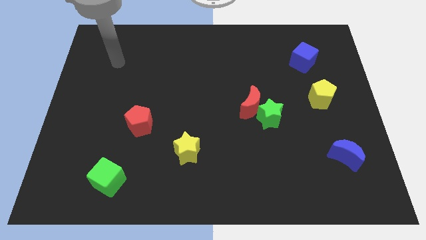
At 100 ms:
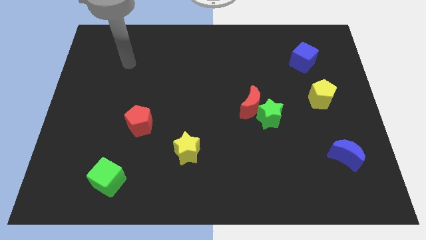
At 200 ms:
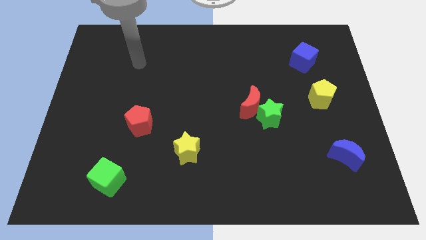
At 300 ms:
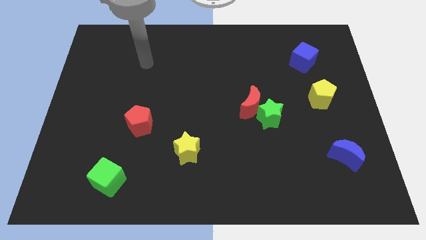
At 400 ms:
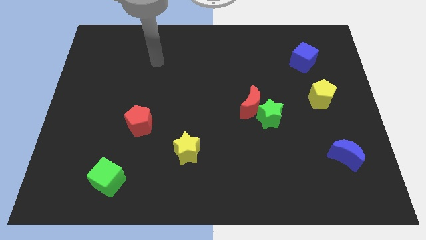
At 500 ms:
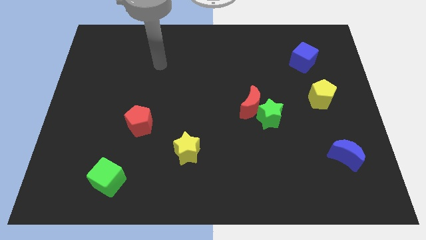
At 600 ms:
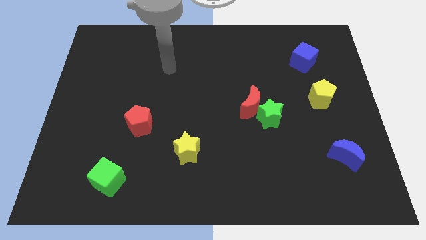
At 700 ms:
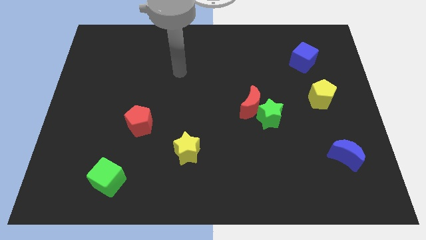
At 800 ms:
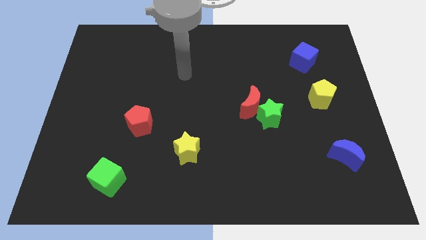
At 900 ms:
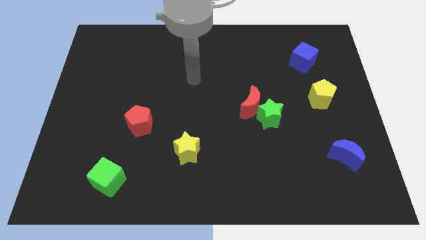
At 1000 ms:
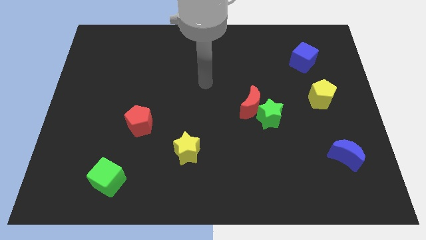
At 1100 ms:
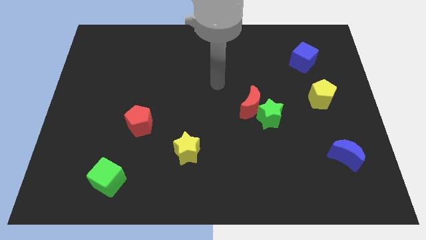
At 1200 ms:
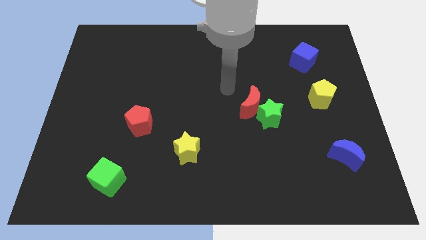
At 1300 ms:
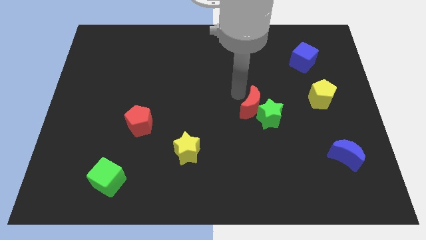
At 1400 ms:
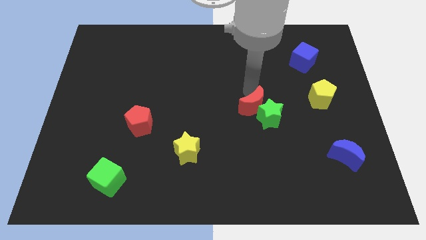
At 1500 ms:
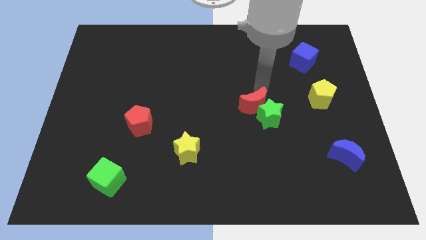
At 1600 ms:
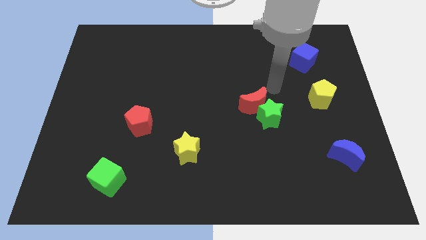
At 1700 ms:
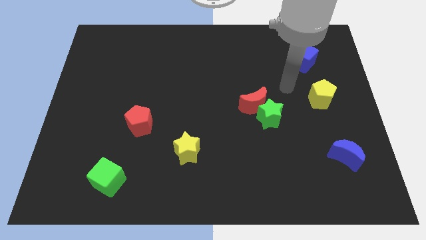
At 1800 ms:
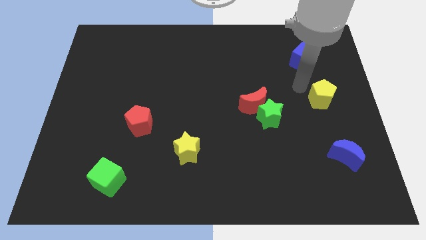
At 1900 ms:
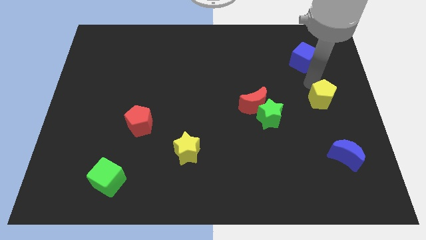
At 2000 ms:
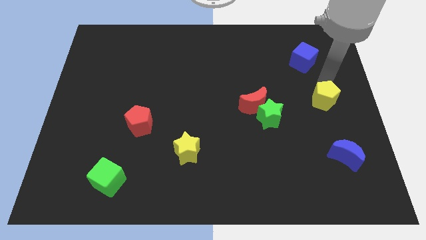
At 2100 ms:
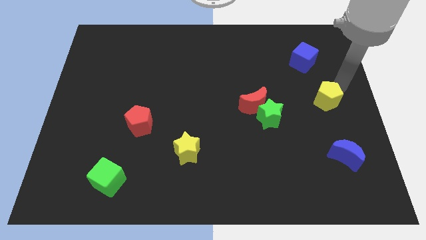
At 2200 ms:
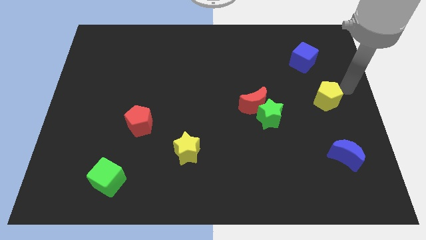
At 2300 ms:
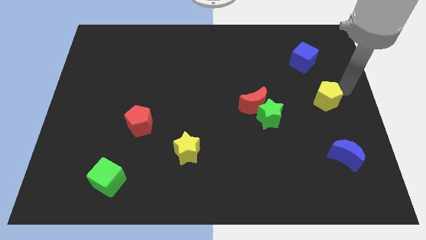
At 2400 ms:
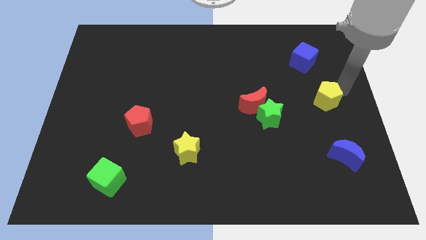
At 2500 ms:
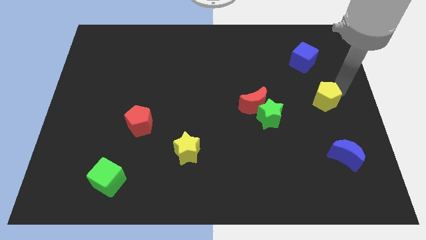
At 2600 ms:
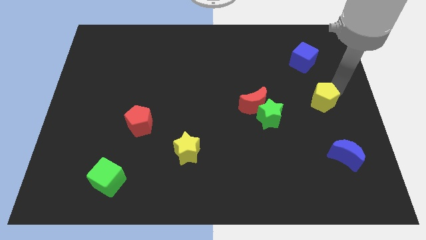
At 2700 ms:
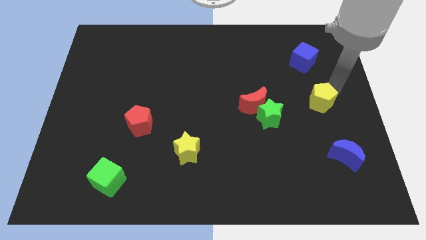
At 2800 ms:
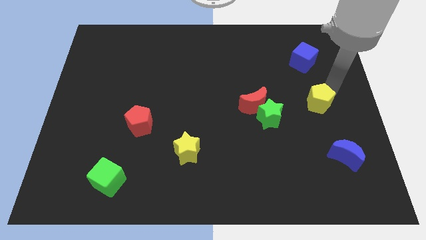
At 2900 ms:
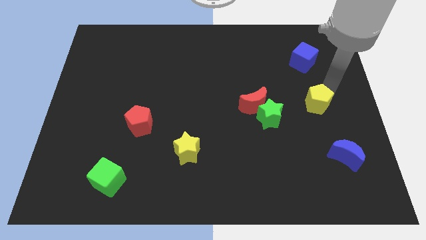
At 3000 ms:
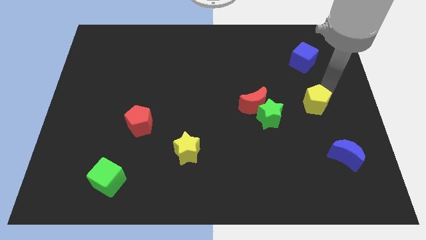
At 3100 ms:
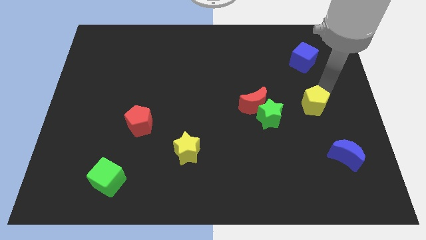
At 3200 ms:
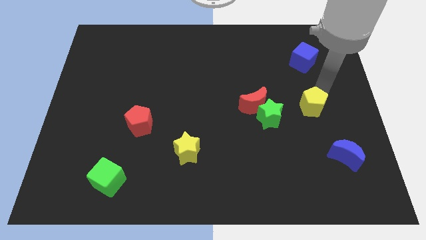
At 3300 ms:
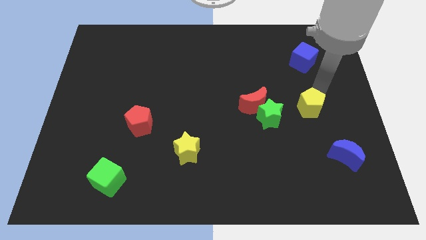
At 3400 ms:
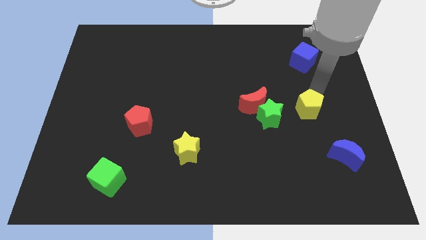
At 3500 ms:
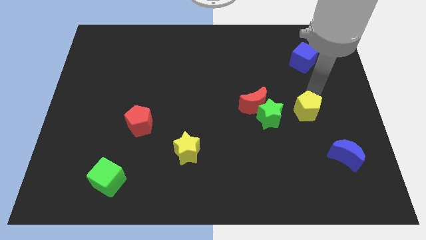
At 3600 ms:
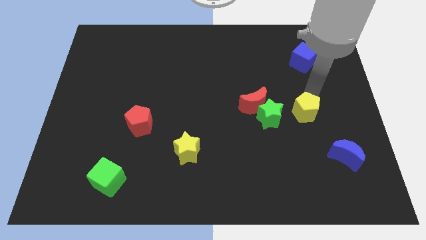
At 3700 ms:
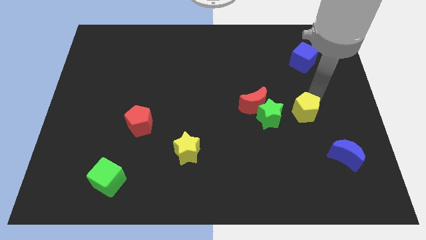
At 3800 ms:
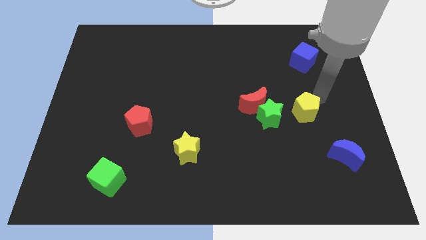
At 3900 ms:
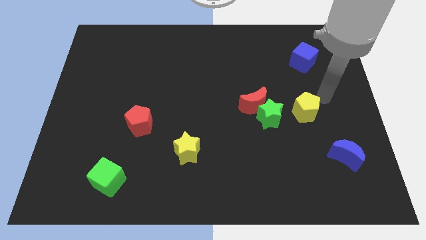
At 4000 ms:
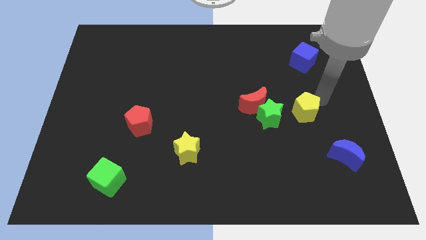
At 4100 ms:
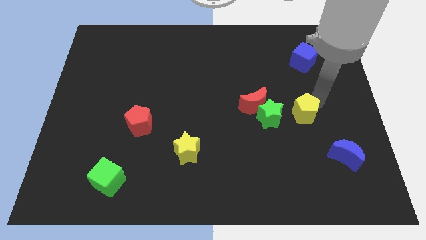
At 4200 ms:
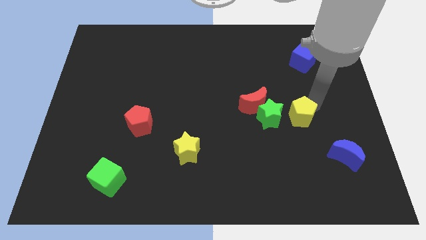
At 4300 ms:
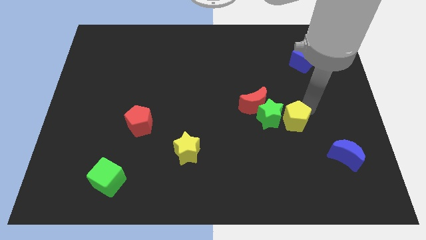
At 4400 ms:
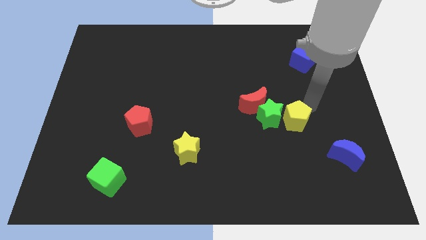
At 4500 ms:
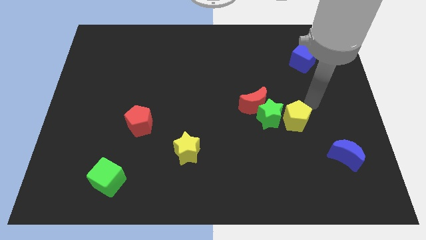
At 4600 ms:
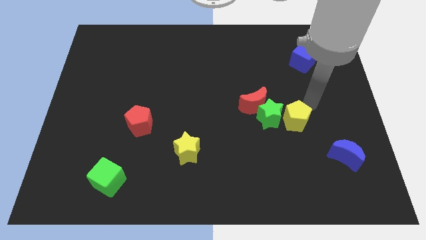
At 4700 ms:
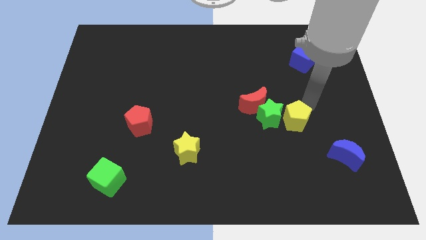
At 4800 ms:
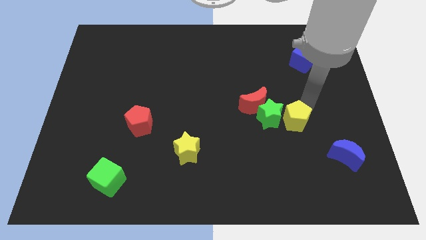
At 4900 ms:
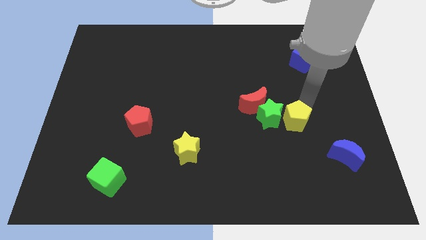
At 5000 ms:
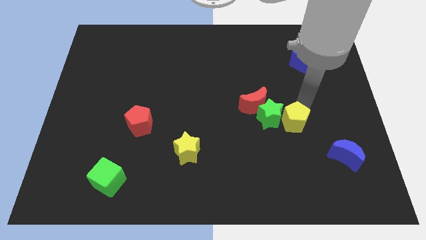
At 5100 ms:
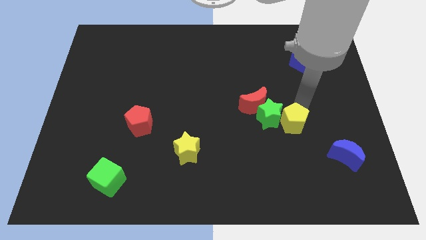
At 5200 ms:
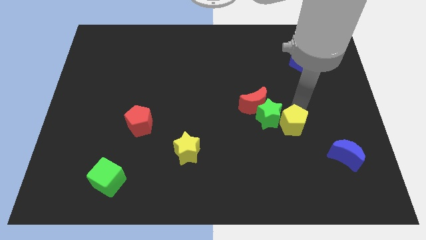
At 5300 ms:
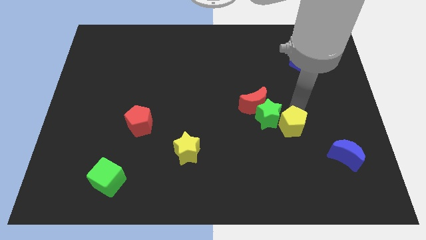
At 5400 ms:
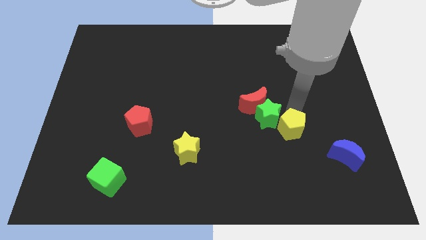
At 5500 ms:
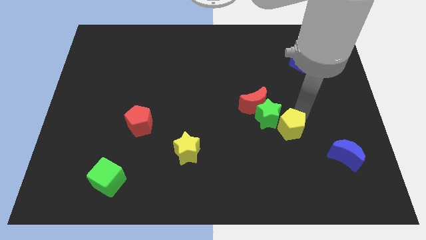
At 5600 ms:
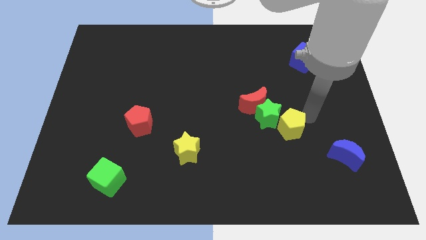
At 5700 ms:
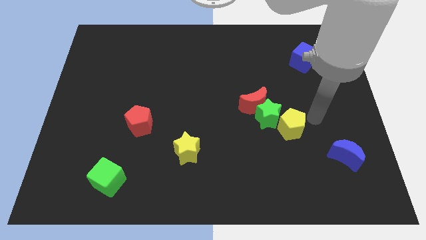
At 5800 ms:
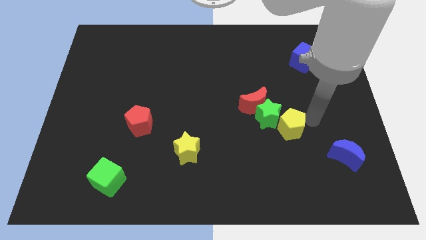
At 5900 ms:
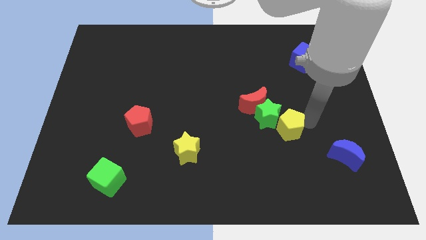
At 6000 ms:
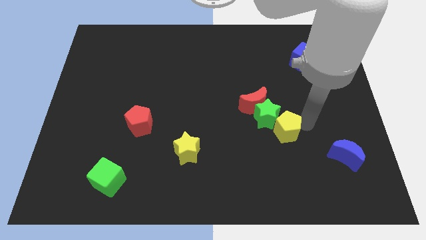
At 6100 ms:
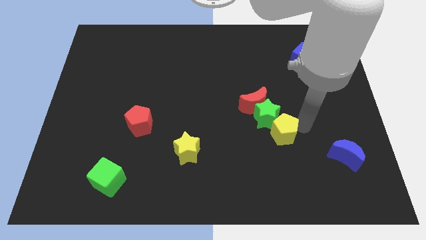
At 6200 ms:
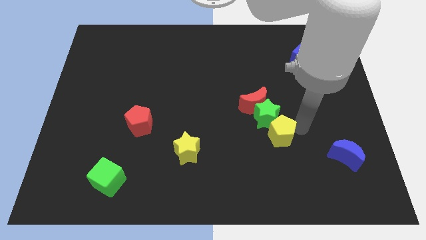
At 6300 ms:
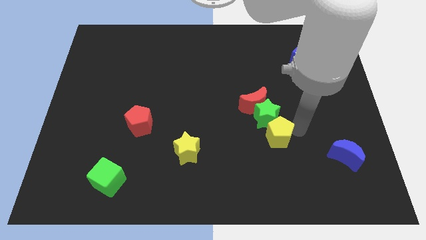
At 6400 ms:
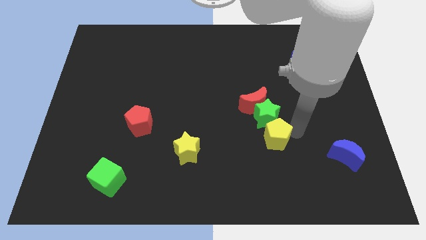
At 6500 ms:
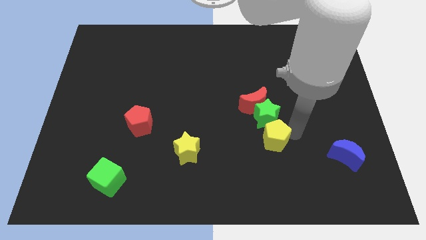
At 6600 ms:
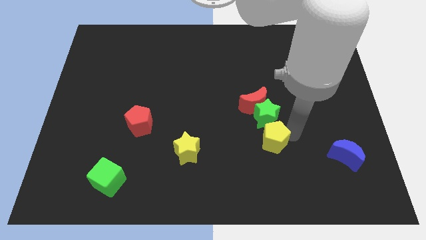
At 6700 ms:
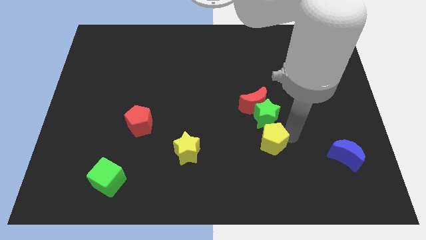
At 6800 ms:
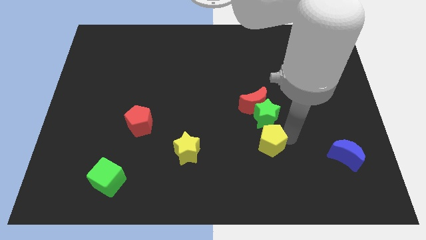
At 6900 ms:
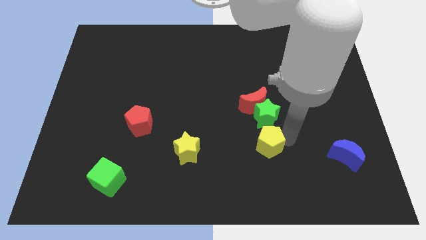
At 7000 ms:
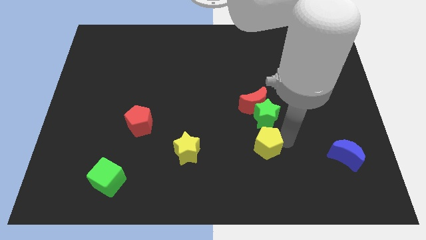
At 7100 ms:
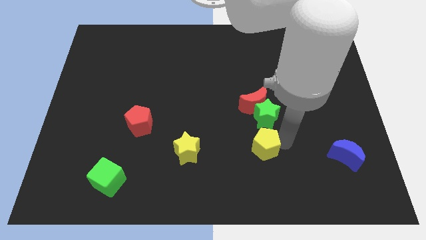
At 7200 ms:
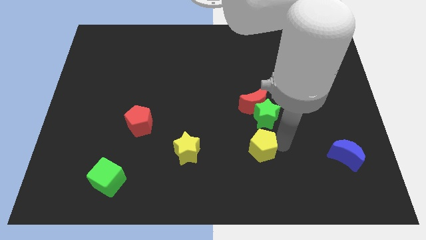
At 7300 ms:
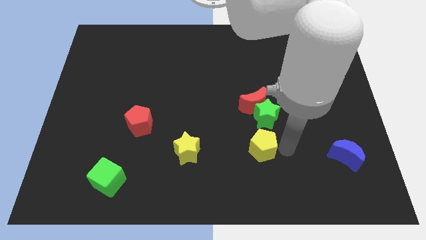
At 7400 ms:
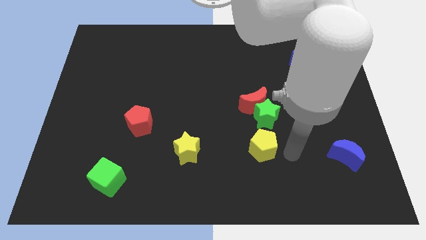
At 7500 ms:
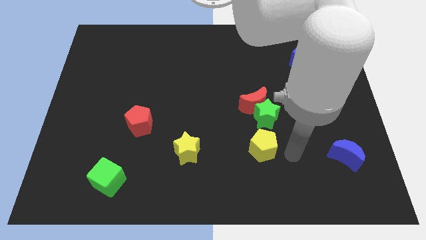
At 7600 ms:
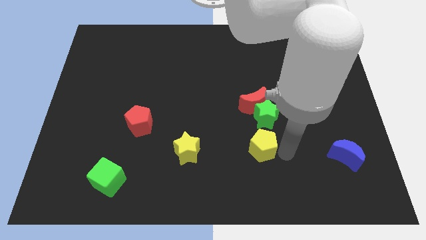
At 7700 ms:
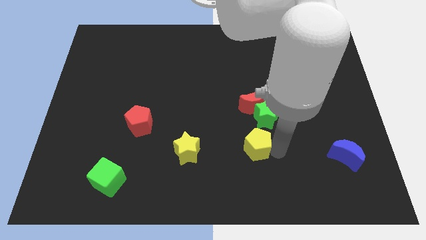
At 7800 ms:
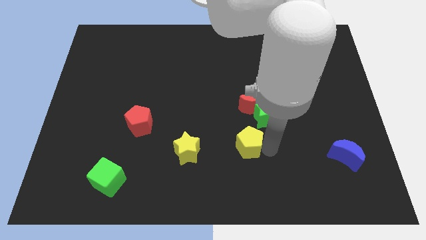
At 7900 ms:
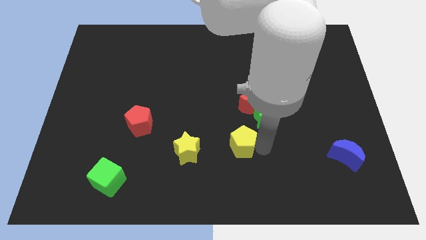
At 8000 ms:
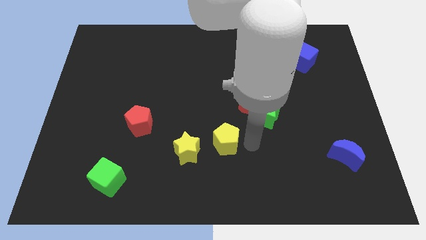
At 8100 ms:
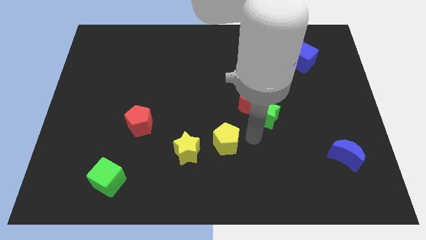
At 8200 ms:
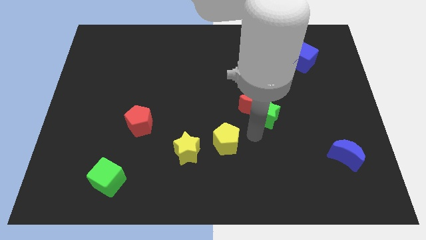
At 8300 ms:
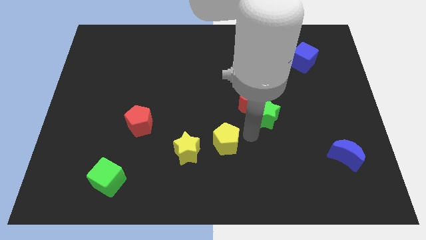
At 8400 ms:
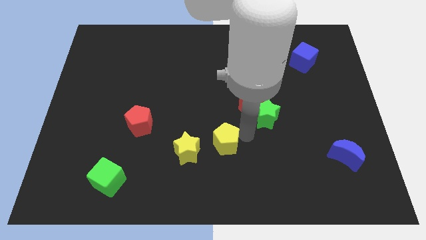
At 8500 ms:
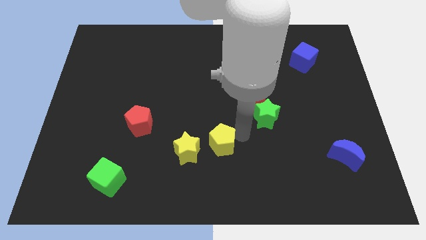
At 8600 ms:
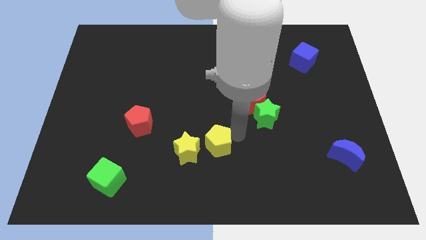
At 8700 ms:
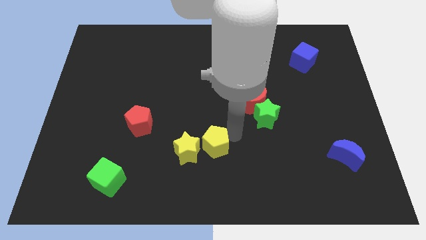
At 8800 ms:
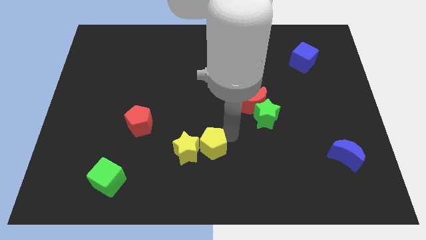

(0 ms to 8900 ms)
put the yellow pentagon close to the yellow star
